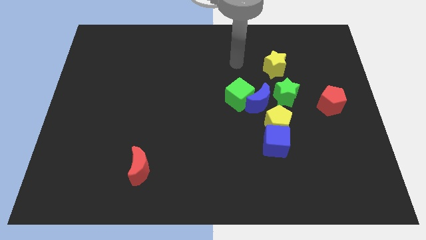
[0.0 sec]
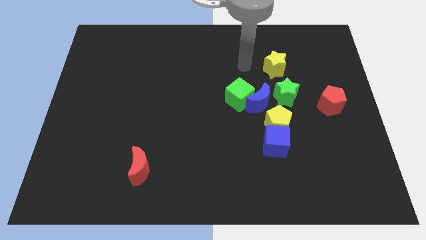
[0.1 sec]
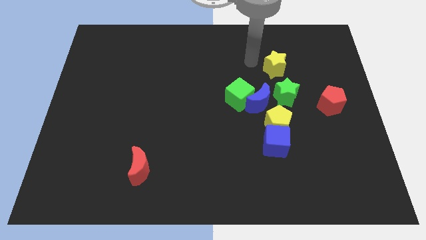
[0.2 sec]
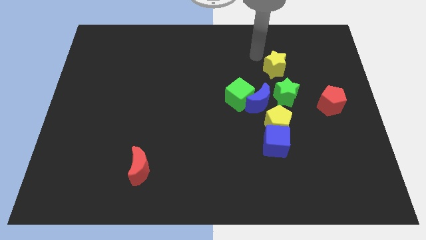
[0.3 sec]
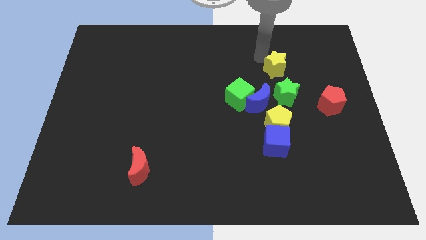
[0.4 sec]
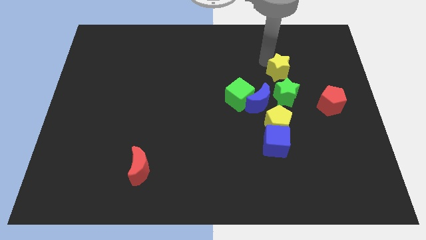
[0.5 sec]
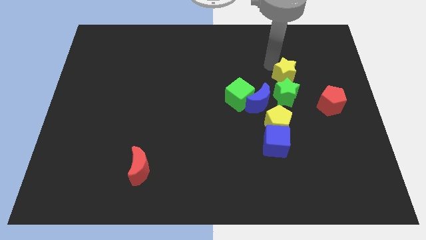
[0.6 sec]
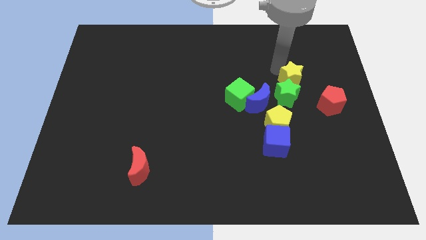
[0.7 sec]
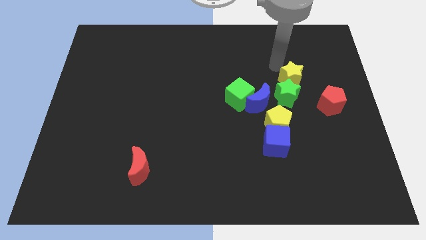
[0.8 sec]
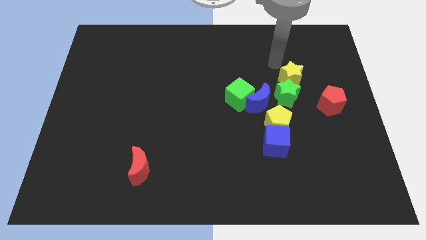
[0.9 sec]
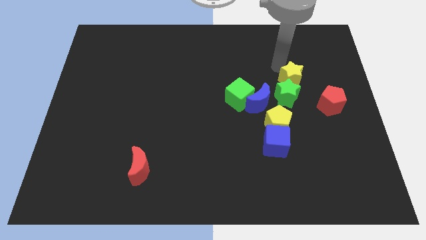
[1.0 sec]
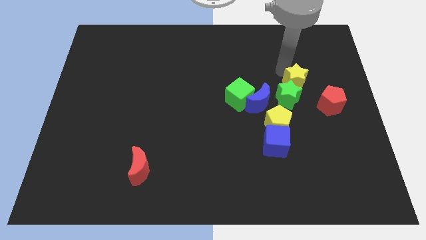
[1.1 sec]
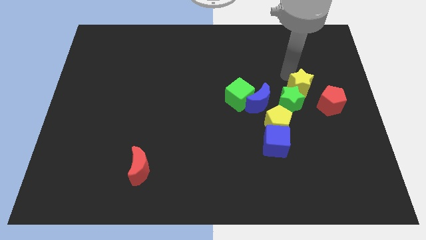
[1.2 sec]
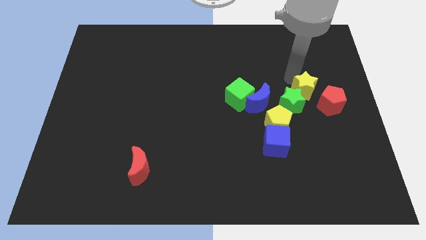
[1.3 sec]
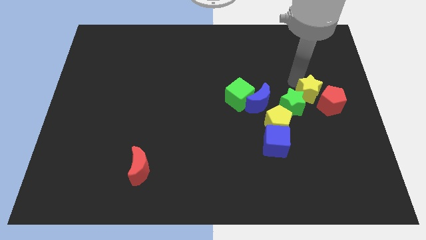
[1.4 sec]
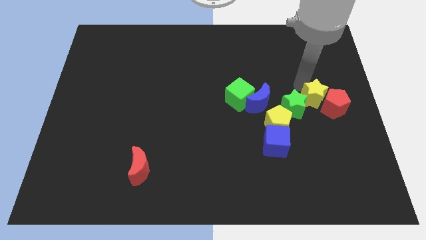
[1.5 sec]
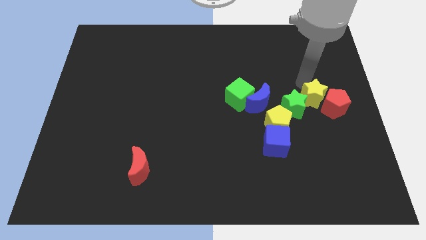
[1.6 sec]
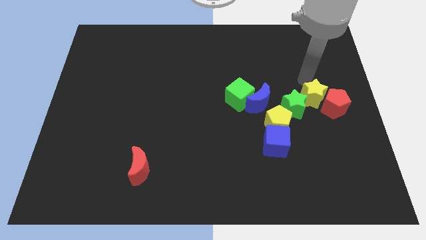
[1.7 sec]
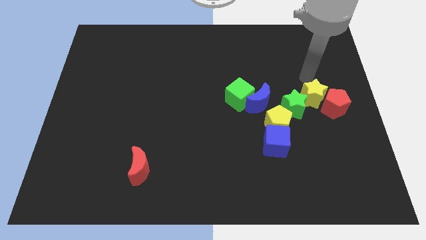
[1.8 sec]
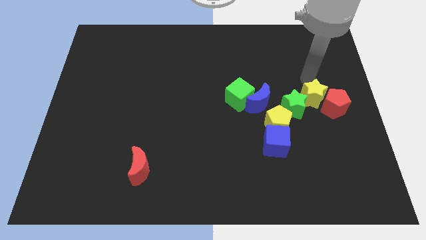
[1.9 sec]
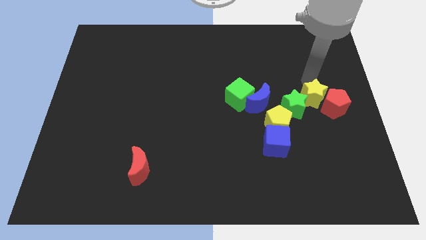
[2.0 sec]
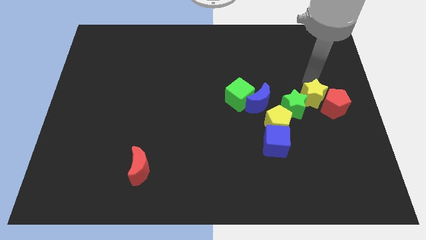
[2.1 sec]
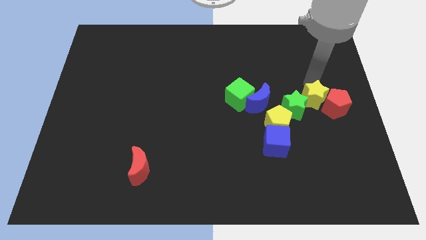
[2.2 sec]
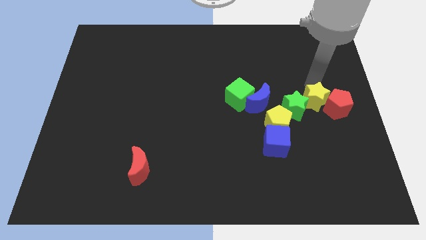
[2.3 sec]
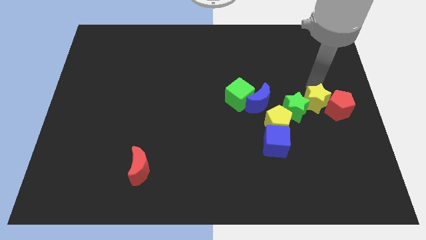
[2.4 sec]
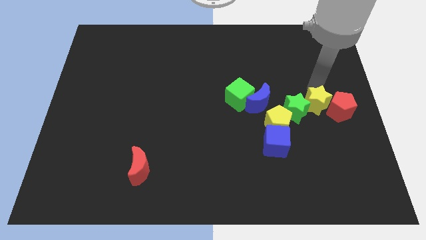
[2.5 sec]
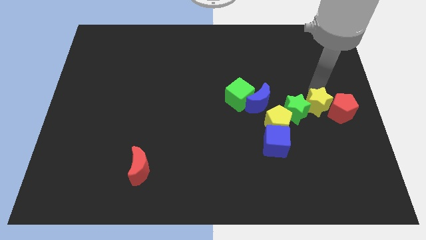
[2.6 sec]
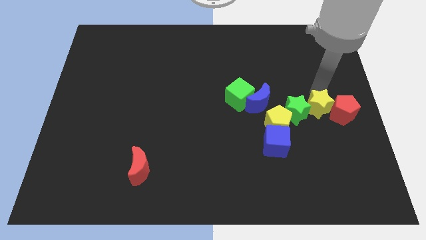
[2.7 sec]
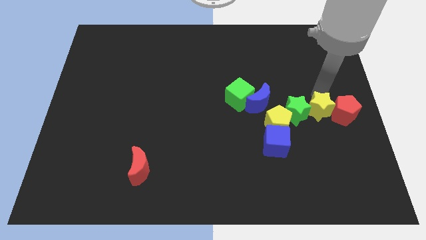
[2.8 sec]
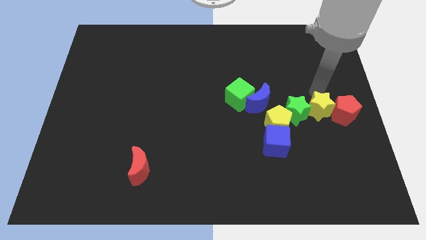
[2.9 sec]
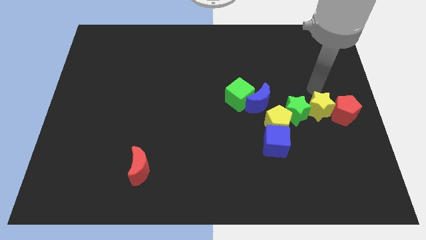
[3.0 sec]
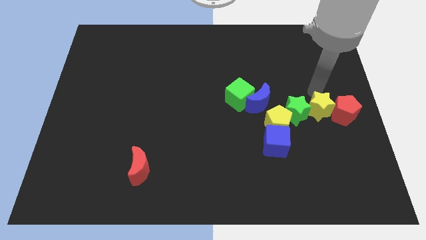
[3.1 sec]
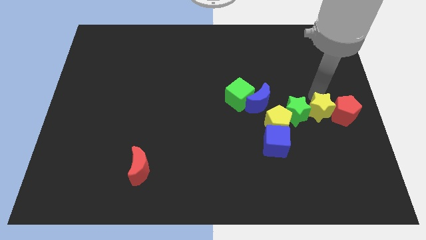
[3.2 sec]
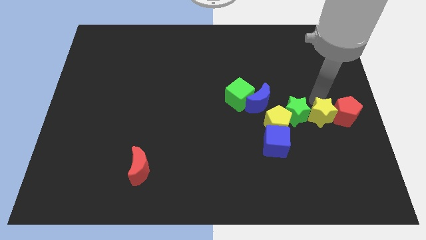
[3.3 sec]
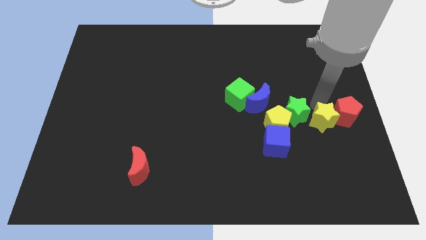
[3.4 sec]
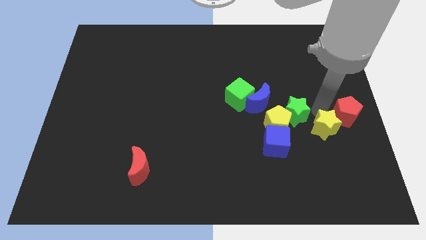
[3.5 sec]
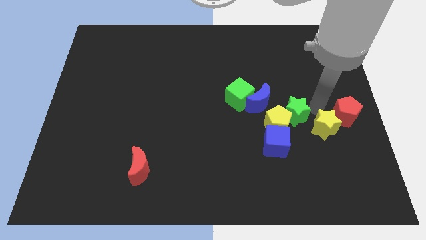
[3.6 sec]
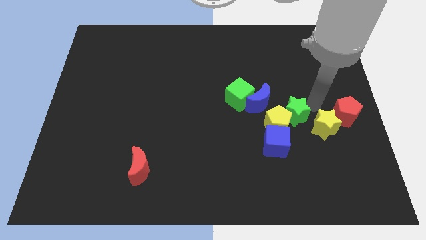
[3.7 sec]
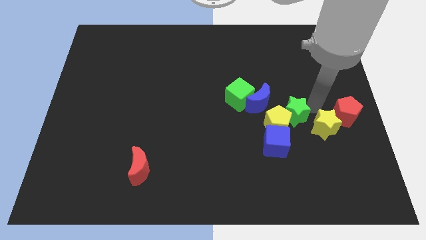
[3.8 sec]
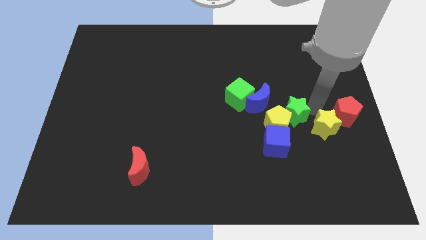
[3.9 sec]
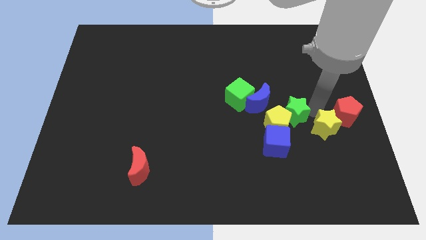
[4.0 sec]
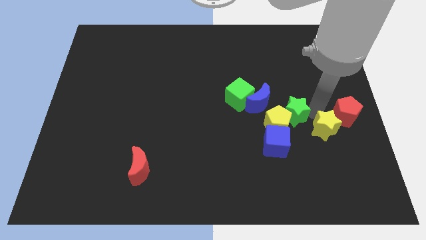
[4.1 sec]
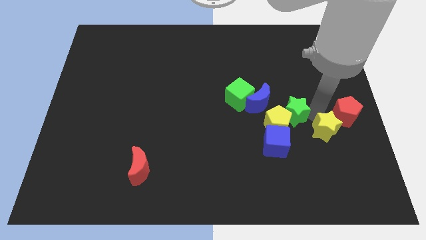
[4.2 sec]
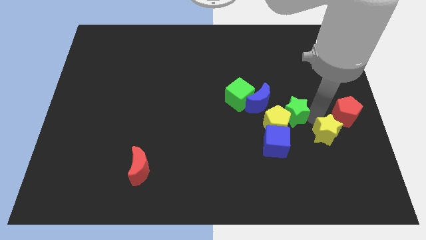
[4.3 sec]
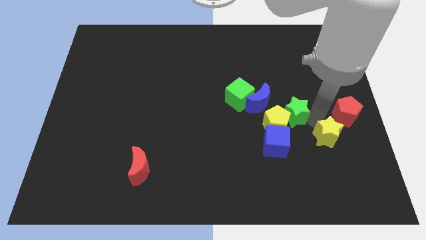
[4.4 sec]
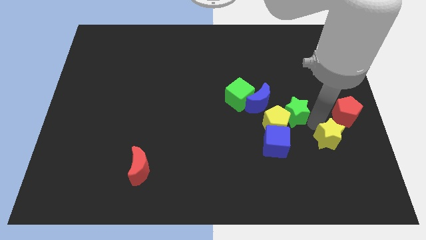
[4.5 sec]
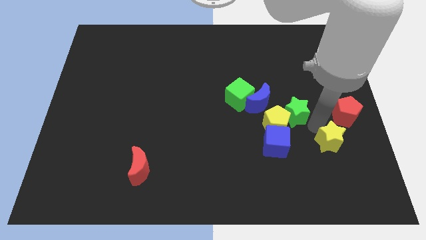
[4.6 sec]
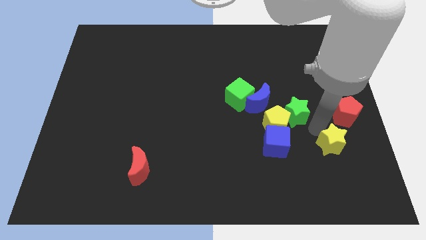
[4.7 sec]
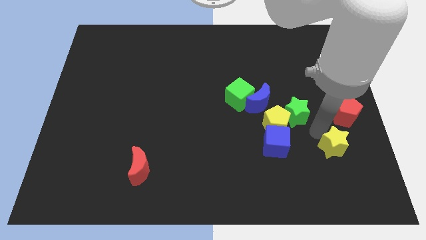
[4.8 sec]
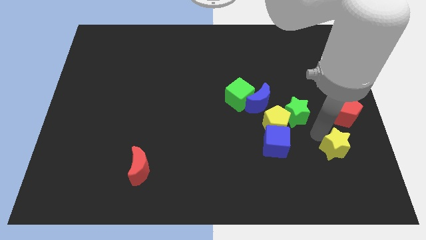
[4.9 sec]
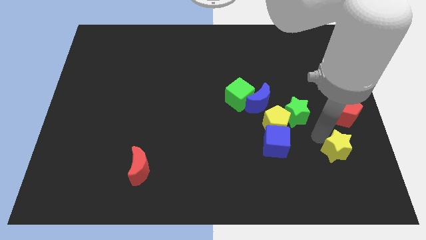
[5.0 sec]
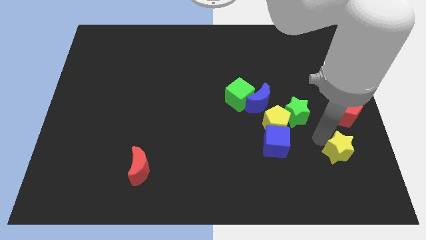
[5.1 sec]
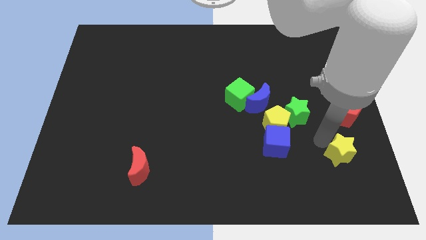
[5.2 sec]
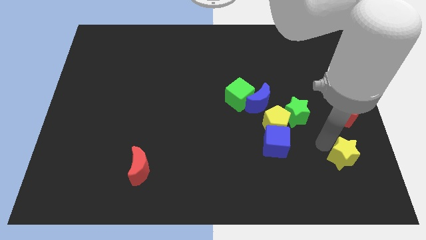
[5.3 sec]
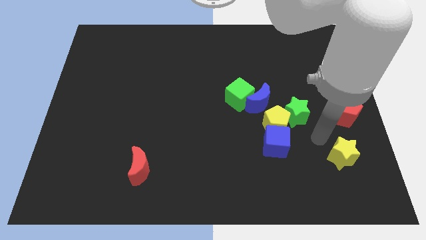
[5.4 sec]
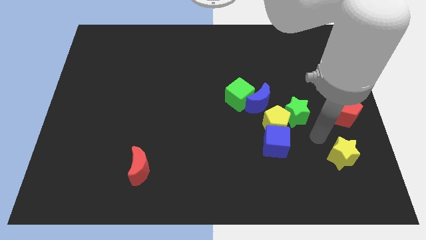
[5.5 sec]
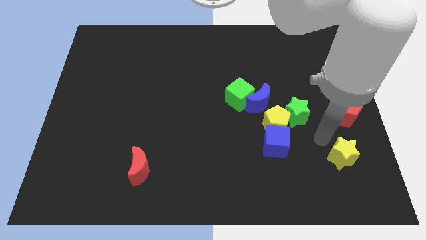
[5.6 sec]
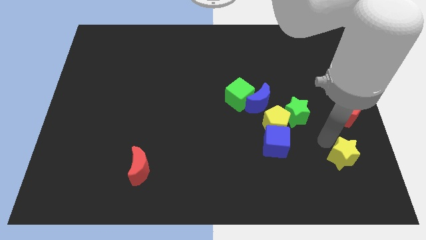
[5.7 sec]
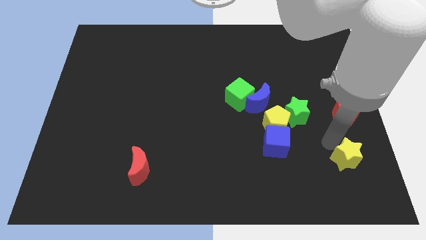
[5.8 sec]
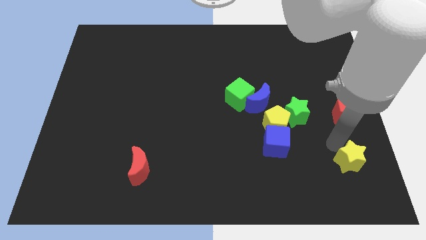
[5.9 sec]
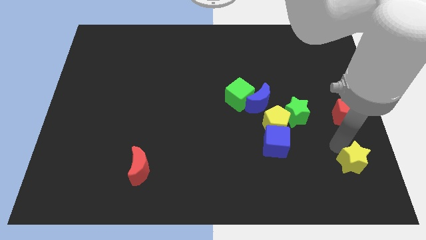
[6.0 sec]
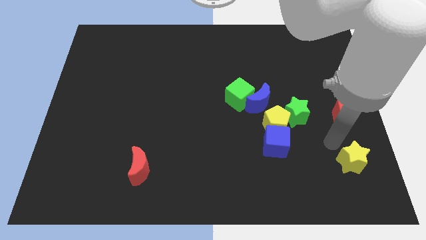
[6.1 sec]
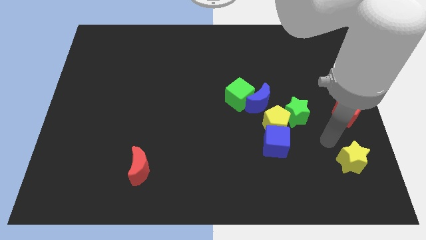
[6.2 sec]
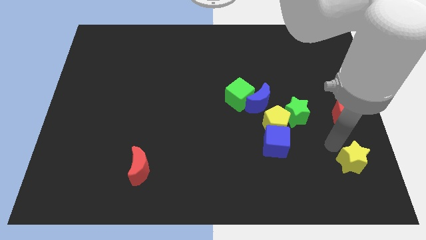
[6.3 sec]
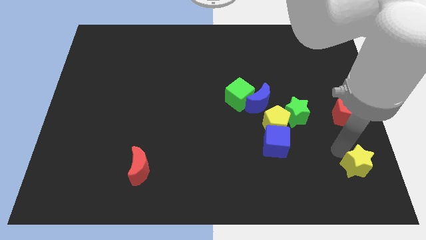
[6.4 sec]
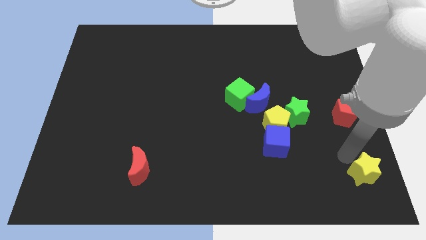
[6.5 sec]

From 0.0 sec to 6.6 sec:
put the yellow star to the bottom right corner

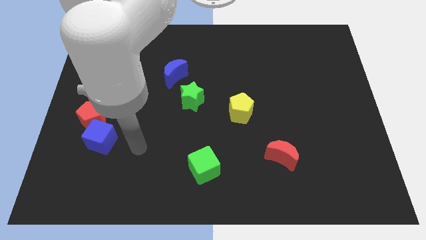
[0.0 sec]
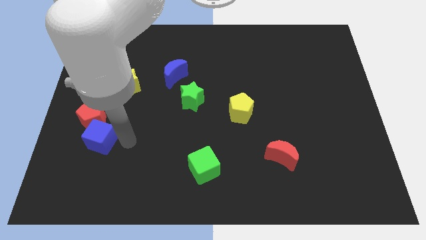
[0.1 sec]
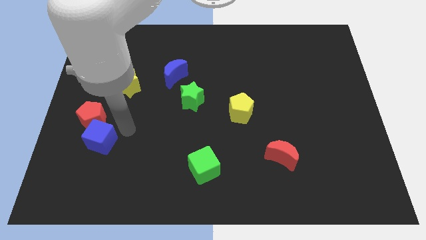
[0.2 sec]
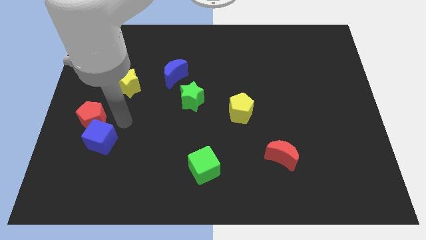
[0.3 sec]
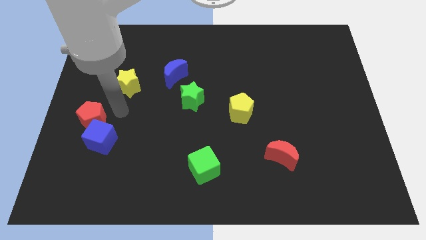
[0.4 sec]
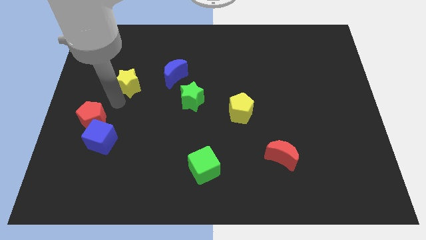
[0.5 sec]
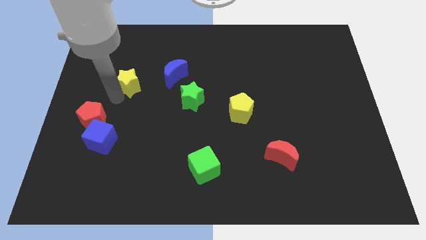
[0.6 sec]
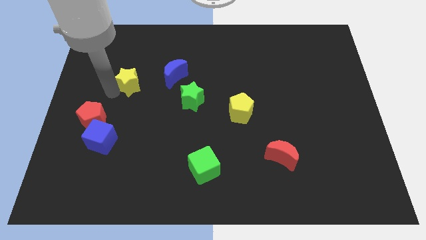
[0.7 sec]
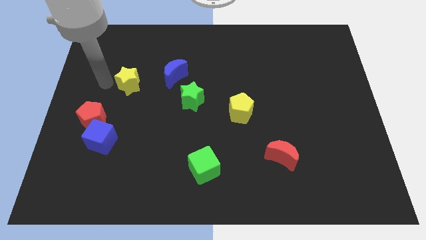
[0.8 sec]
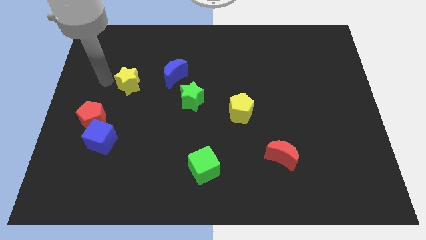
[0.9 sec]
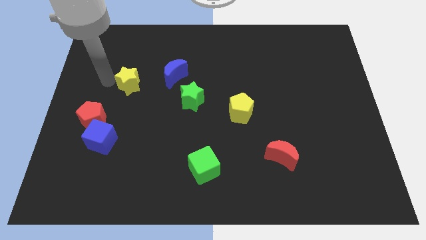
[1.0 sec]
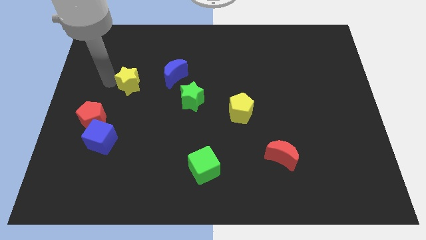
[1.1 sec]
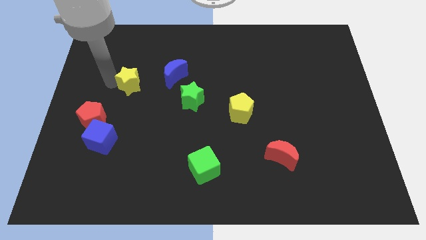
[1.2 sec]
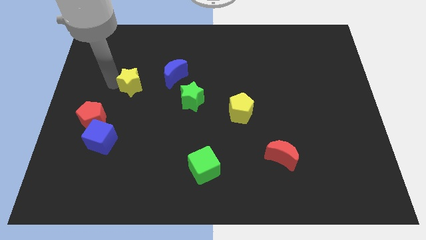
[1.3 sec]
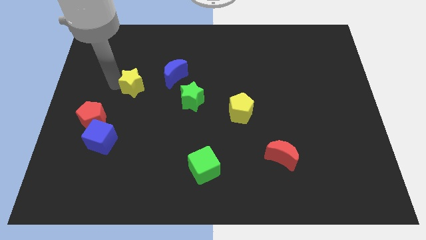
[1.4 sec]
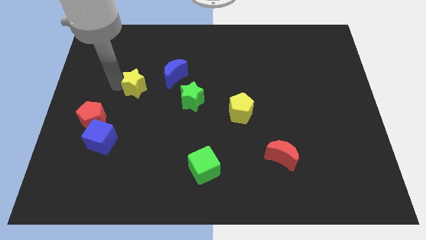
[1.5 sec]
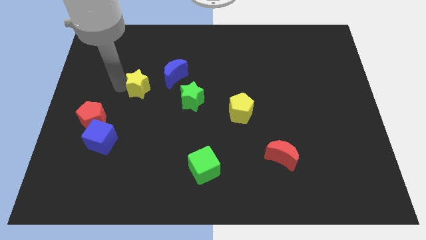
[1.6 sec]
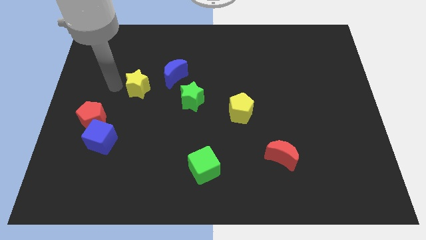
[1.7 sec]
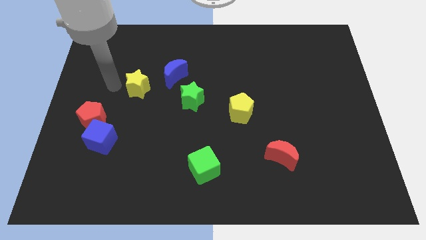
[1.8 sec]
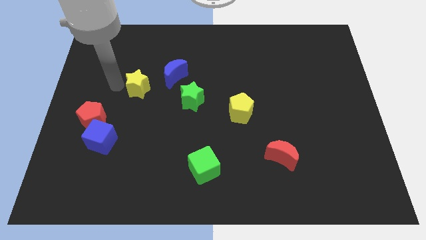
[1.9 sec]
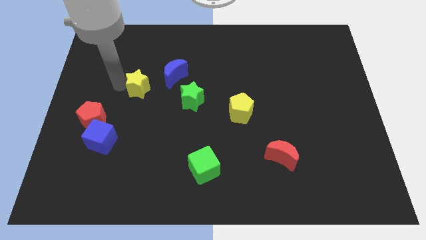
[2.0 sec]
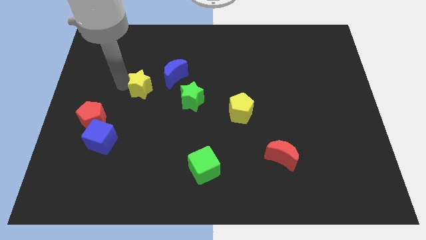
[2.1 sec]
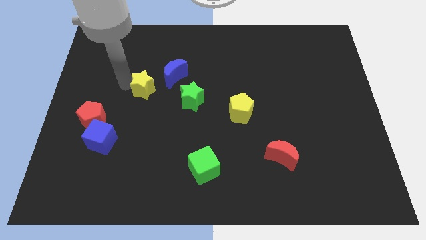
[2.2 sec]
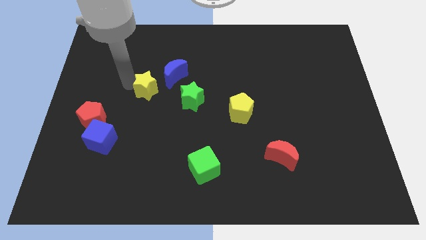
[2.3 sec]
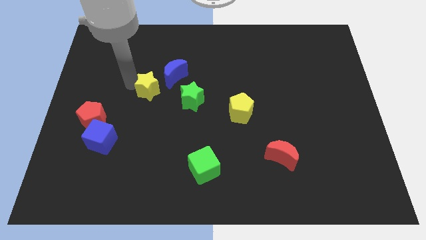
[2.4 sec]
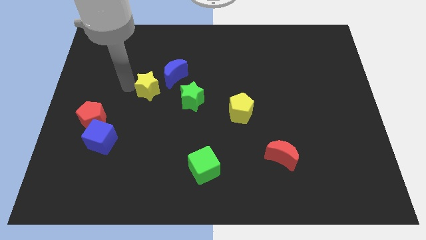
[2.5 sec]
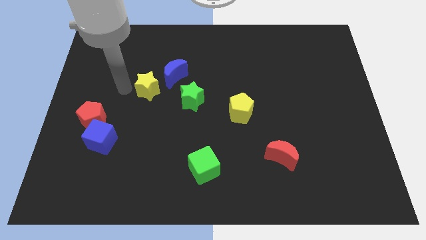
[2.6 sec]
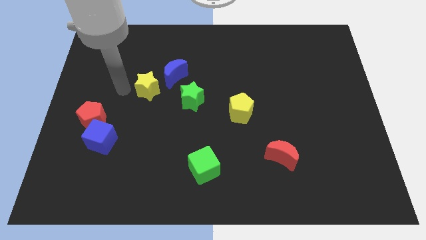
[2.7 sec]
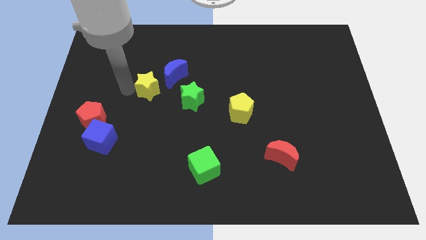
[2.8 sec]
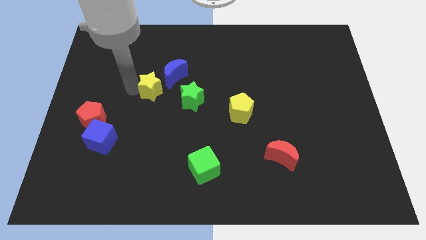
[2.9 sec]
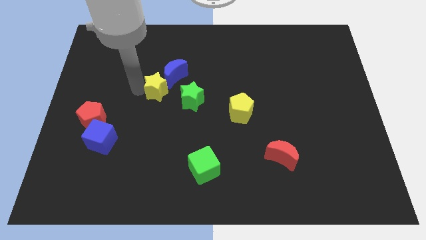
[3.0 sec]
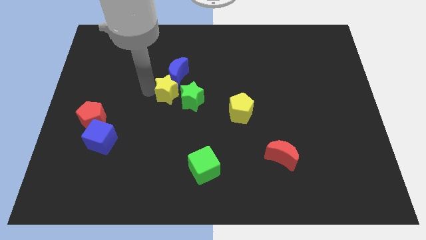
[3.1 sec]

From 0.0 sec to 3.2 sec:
move the yellow star to the middle of the board
